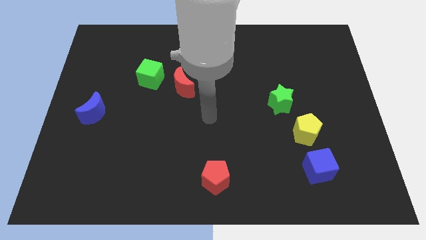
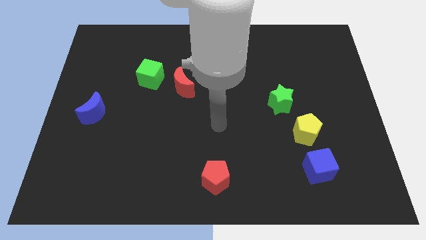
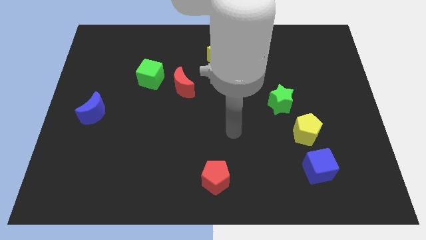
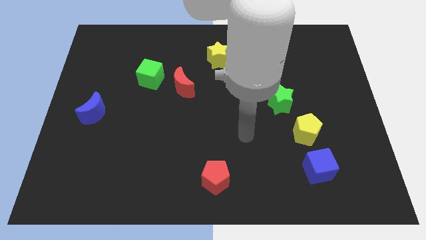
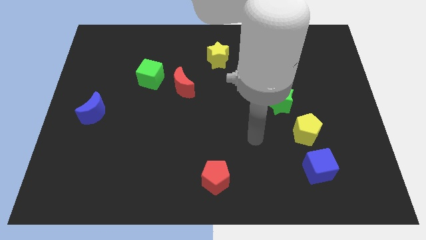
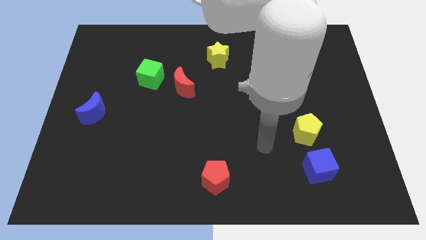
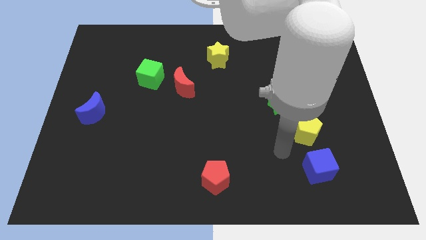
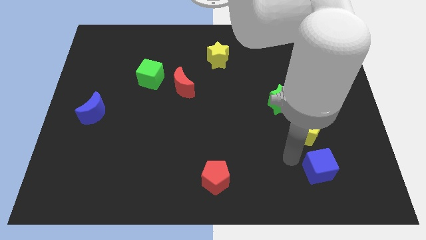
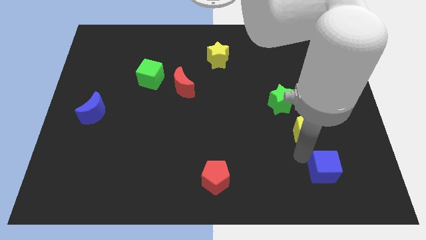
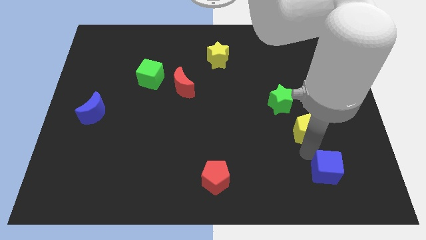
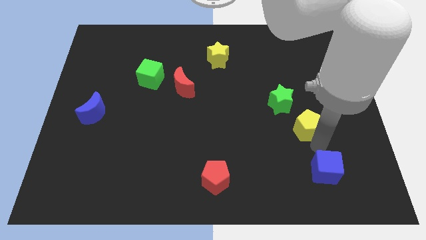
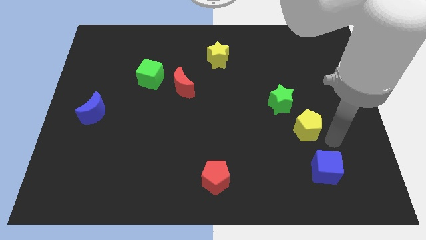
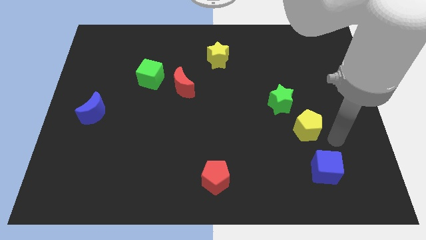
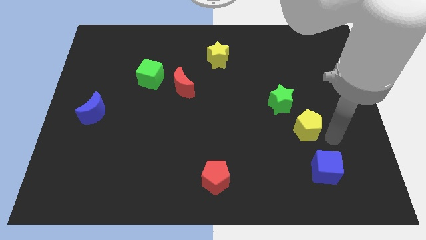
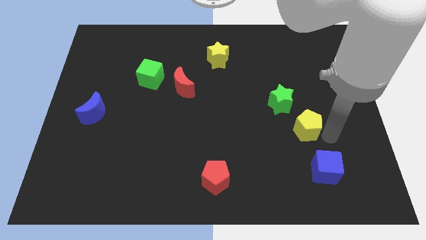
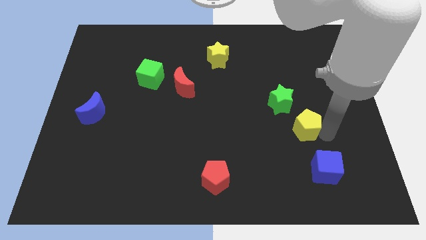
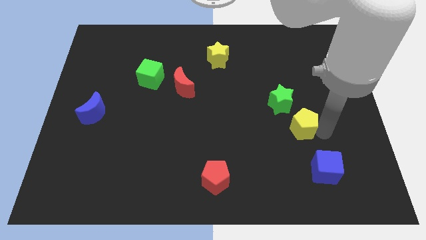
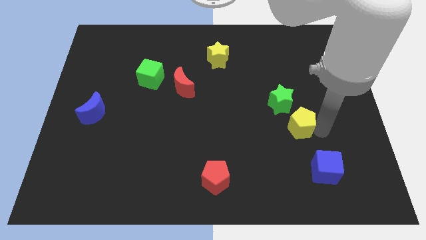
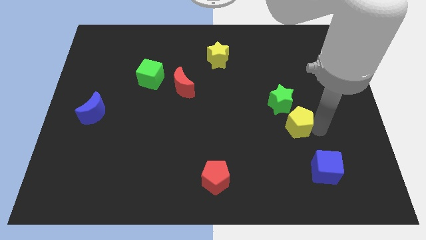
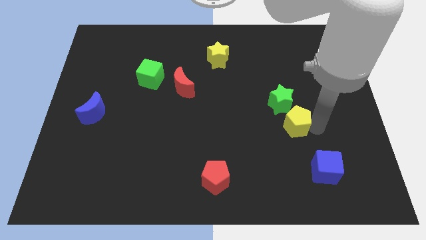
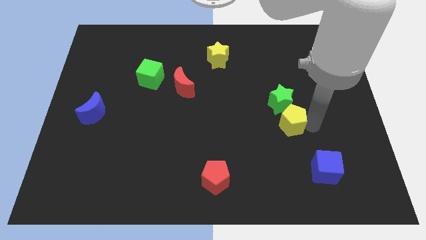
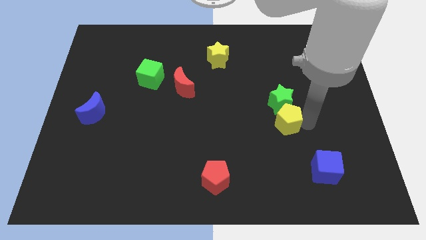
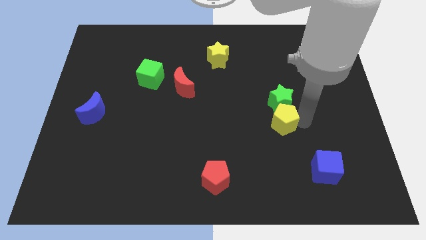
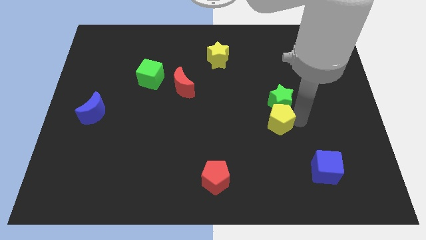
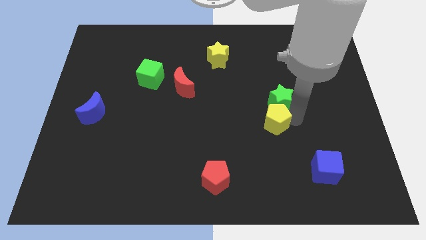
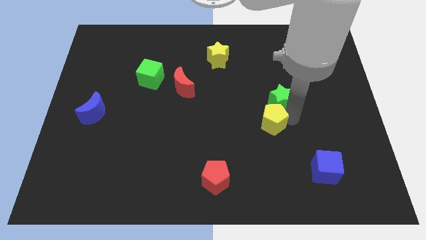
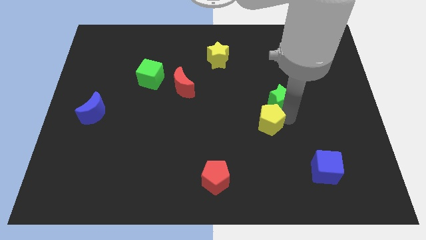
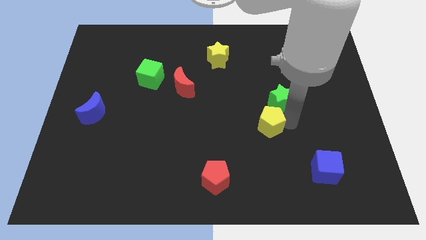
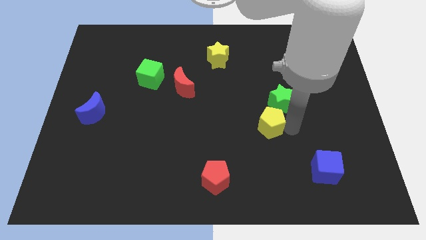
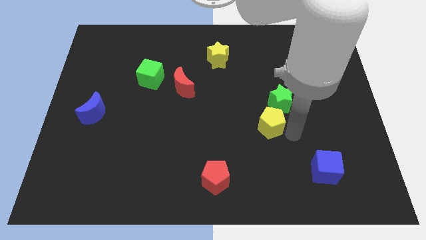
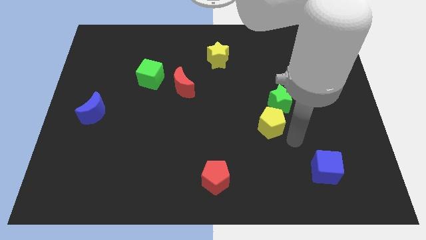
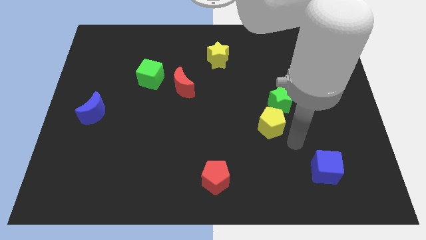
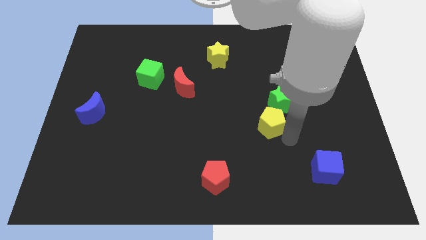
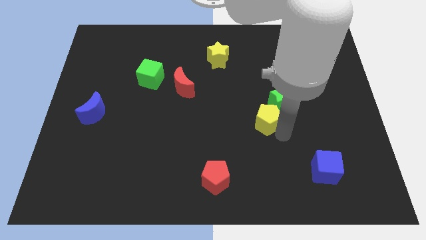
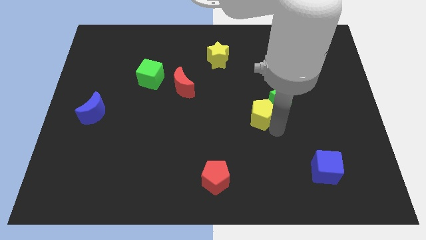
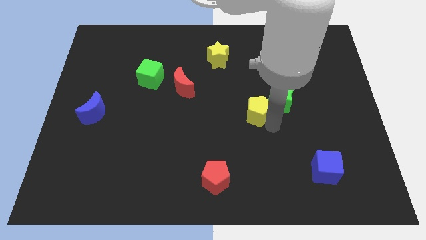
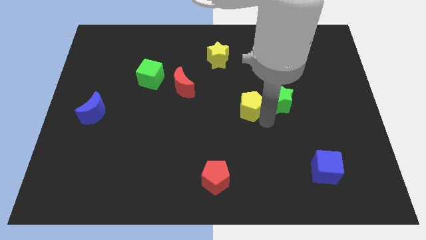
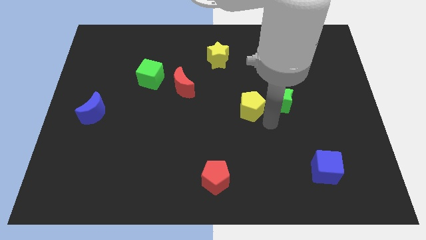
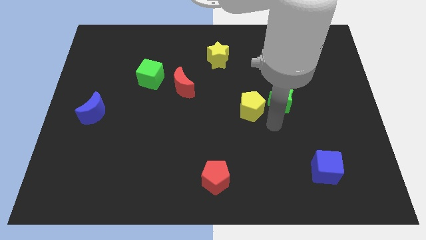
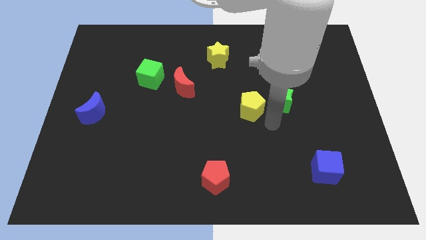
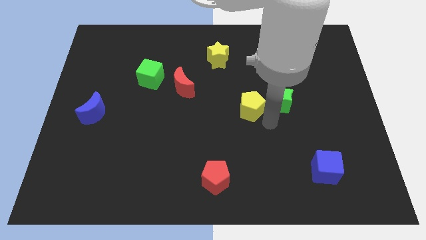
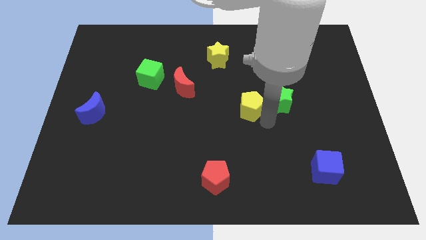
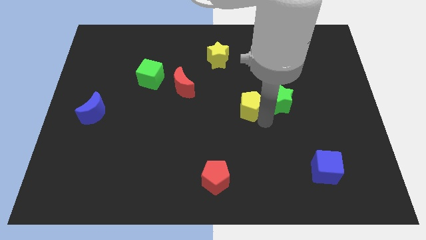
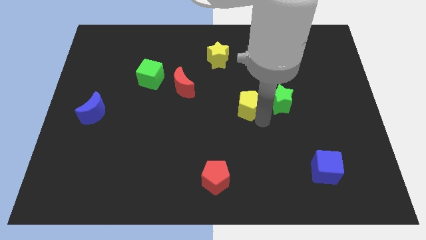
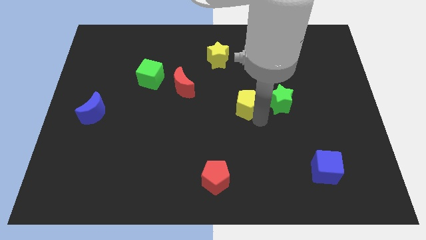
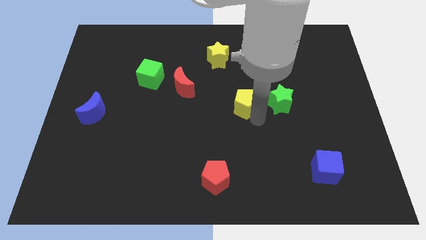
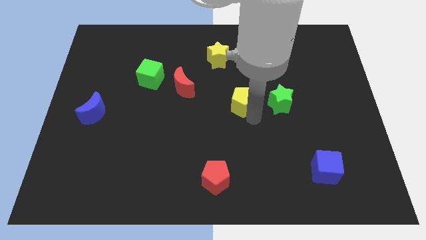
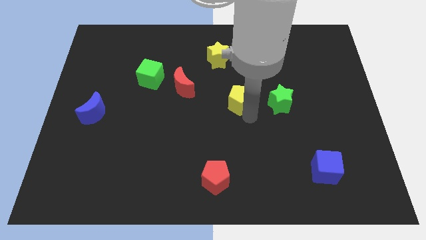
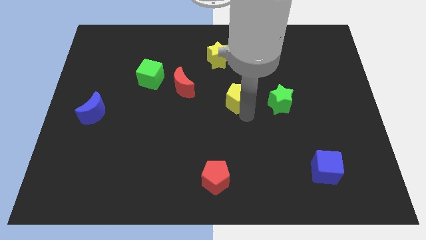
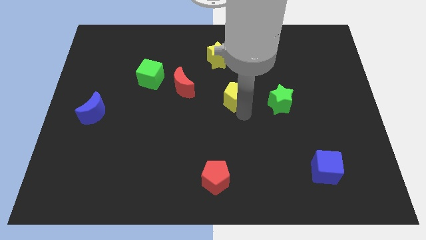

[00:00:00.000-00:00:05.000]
push the yellow pentagon to the bottom side of the yellow star

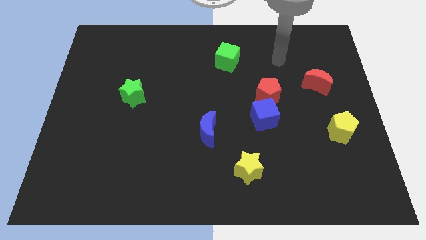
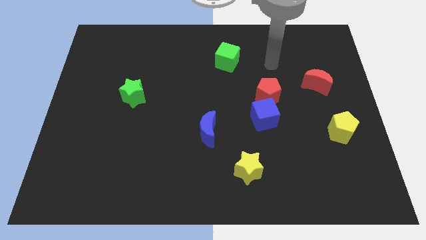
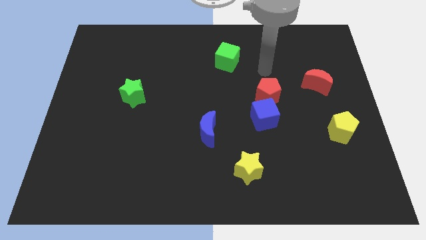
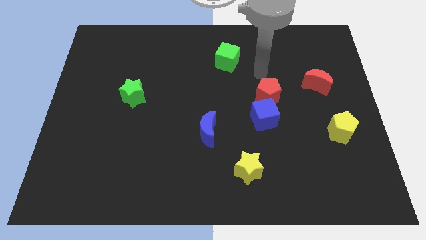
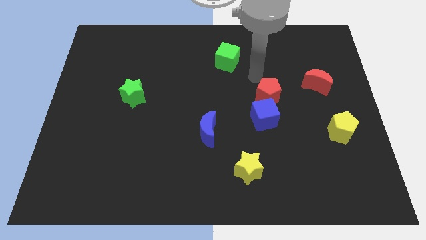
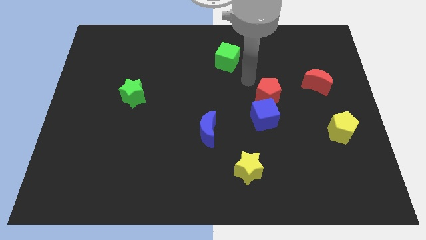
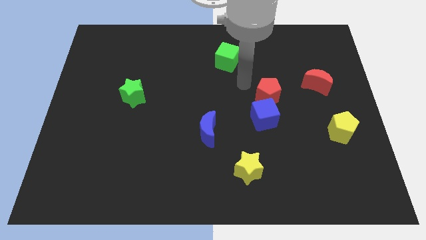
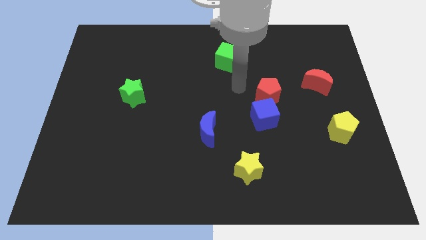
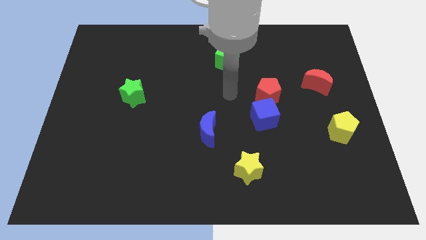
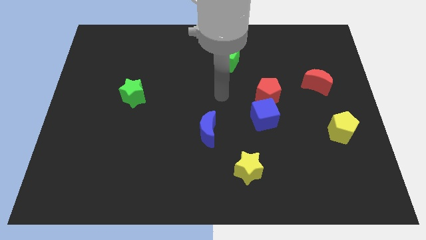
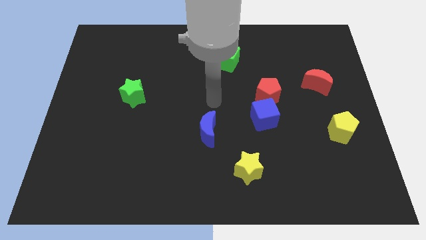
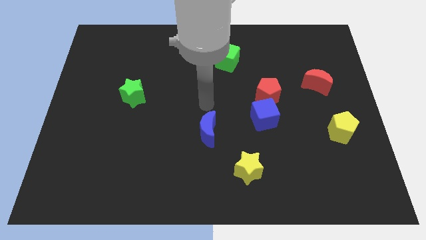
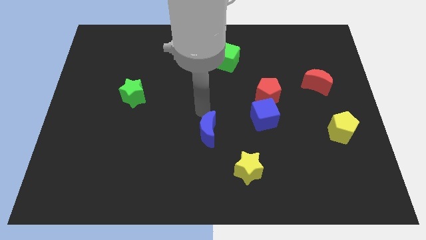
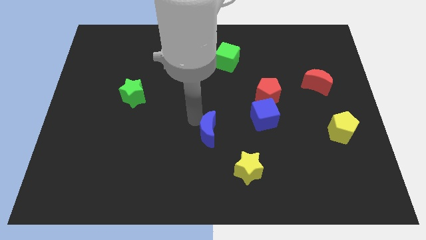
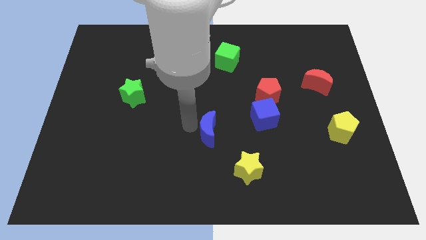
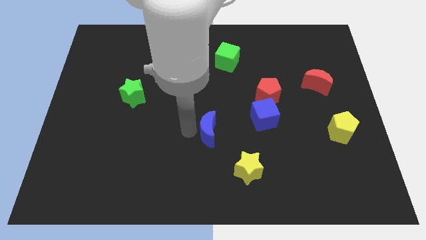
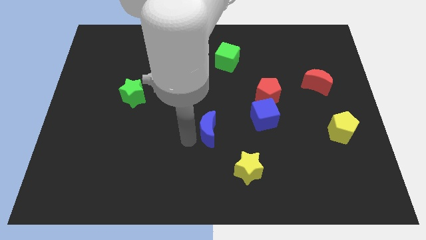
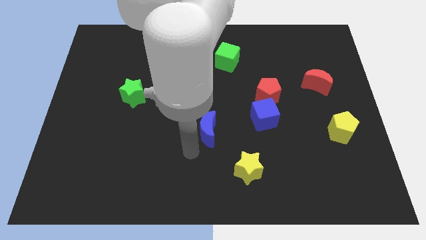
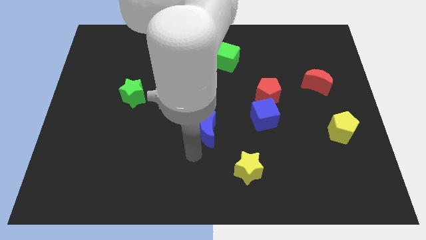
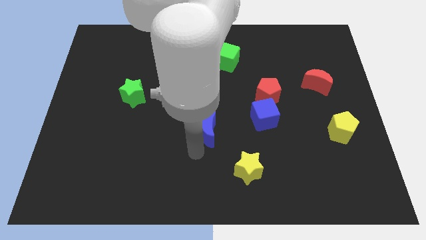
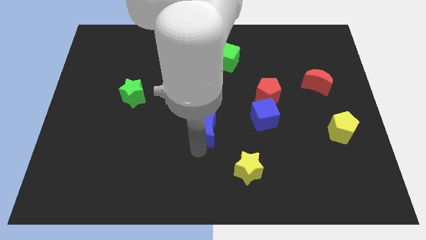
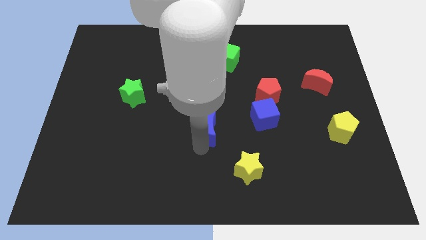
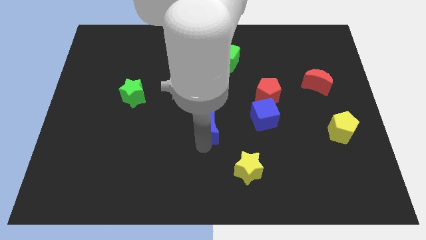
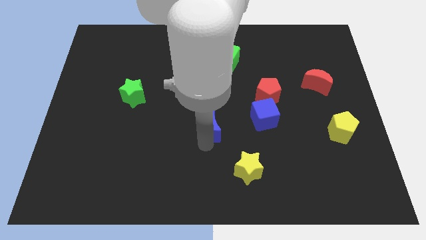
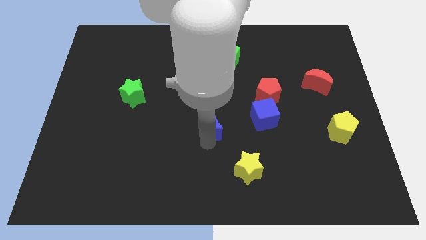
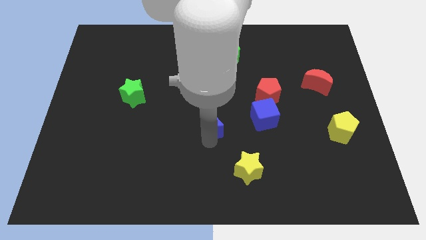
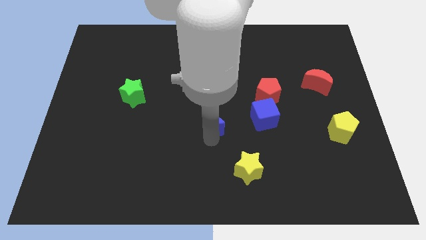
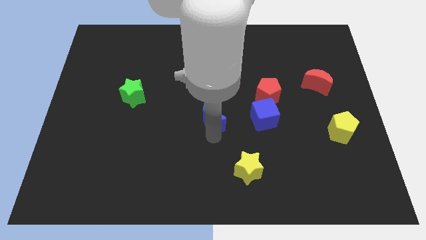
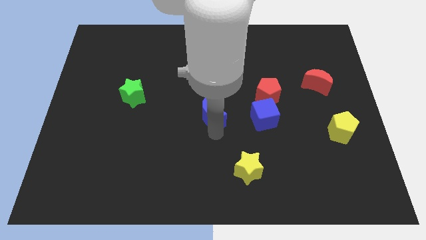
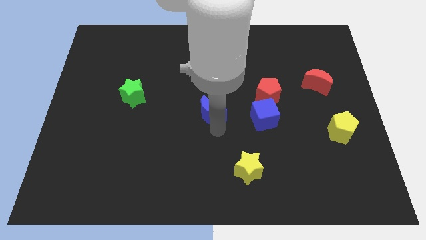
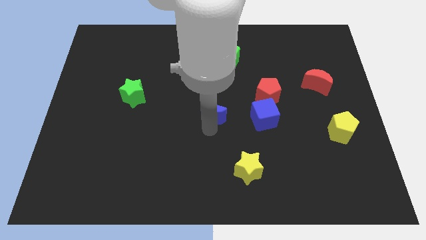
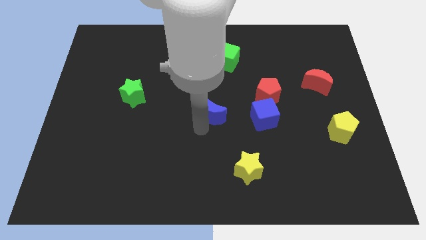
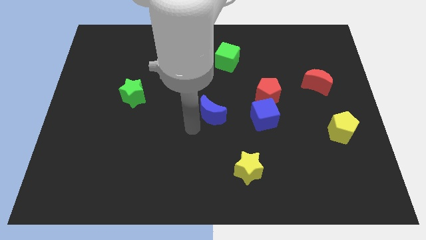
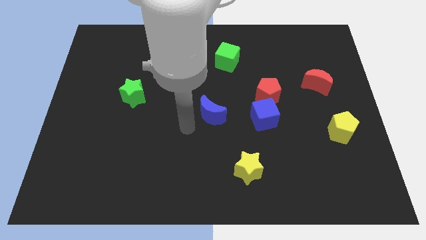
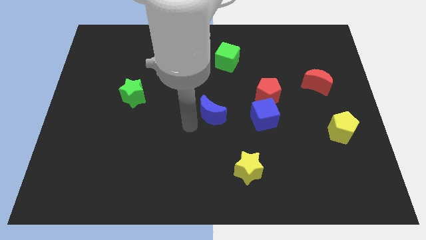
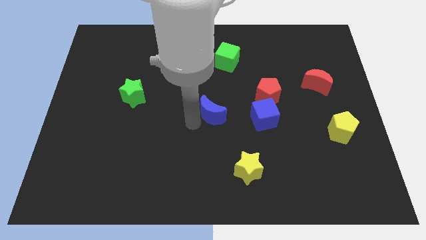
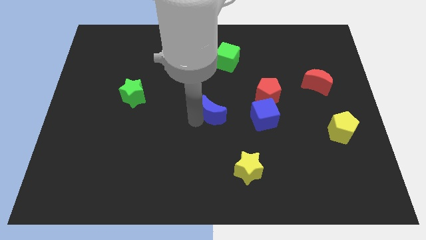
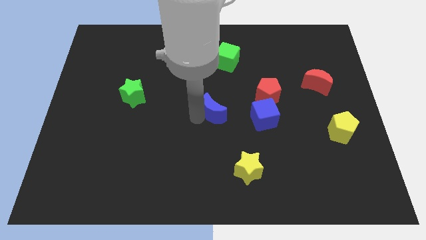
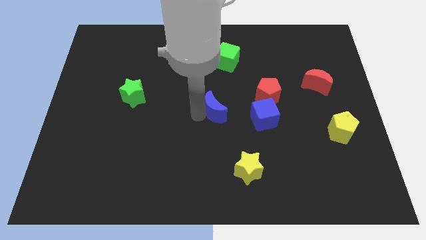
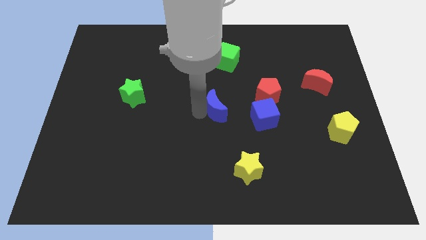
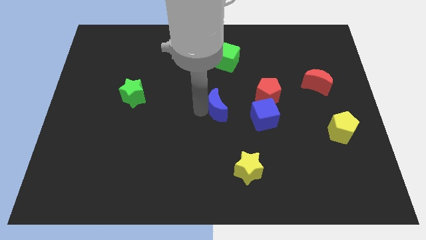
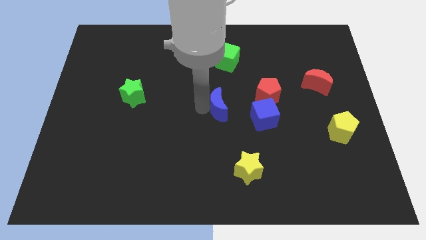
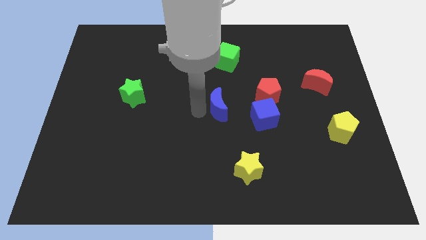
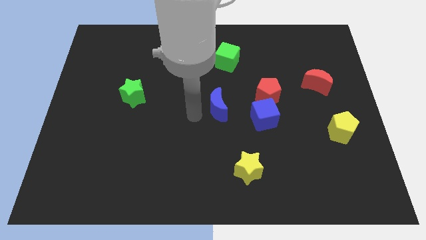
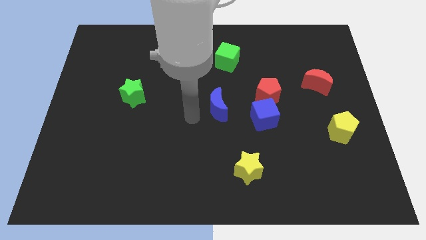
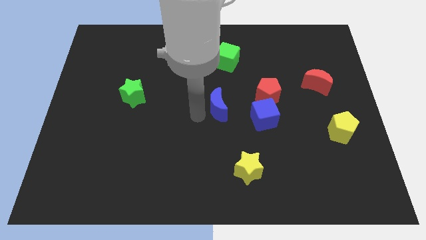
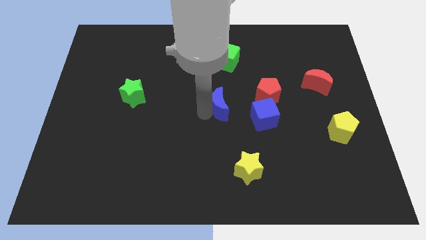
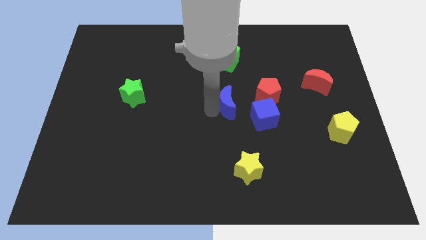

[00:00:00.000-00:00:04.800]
put the blue moon to the top left of the blue cube
